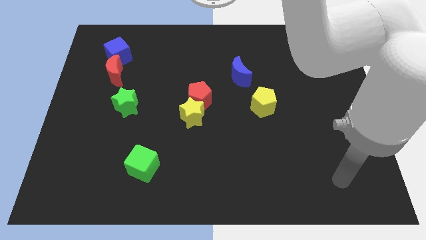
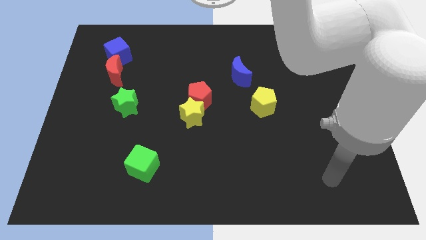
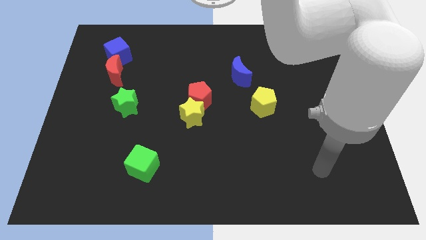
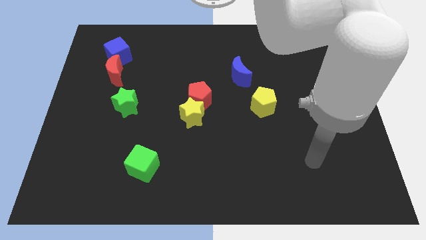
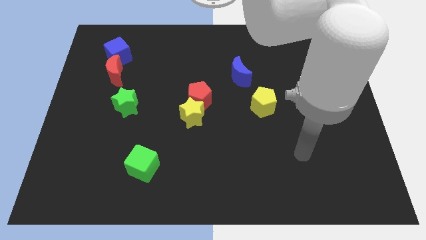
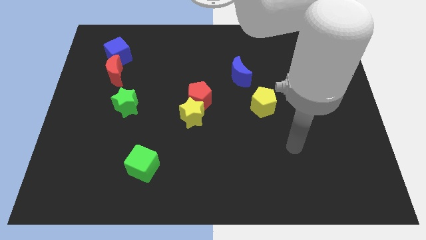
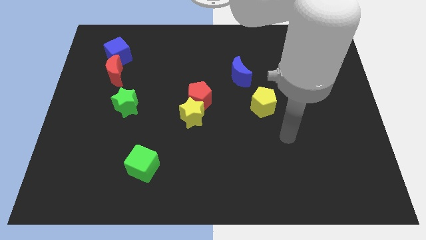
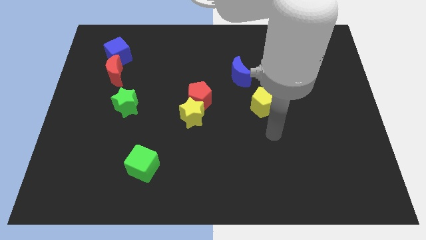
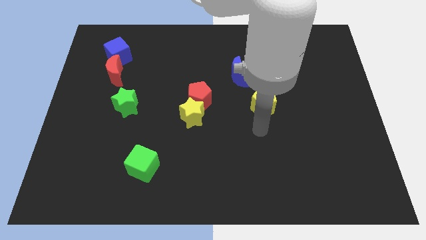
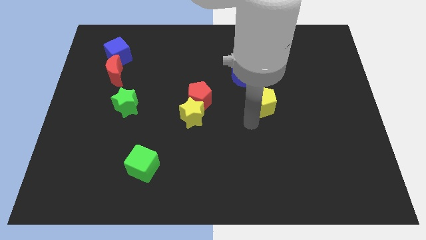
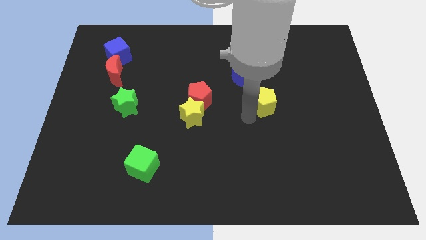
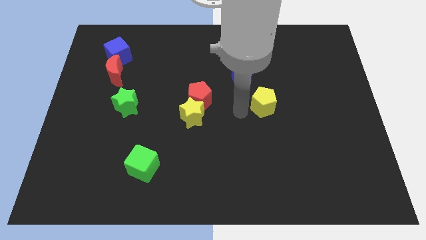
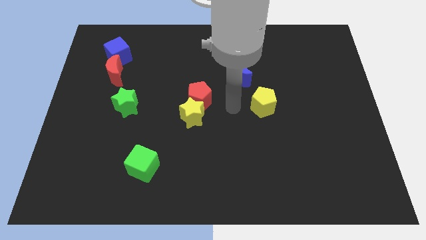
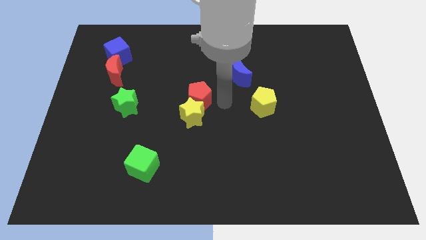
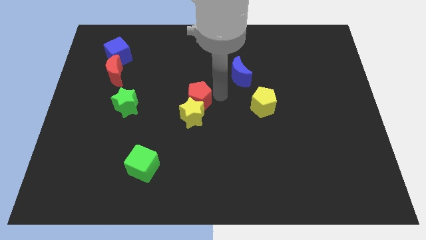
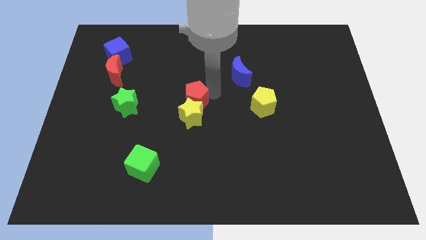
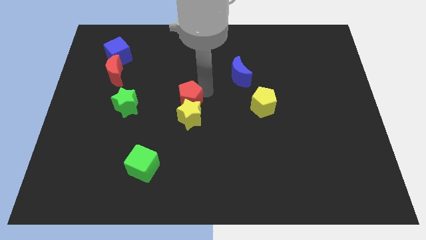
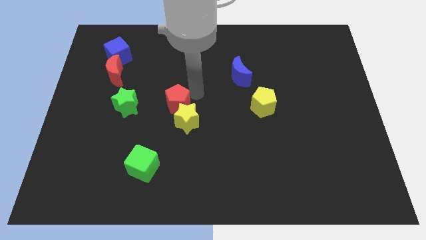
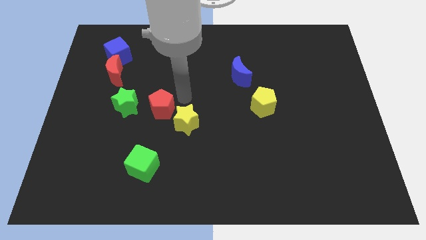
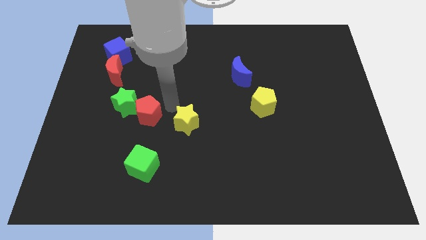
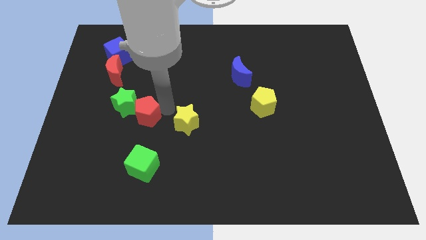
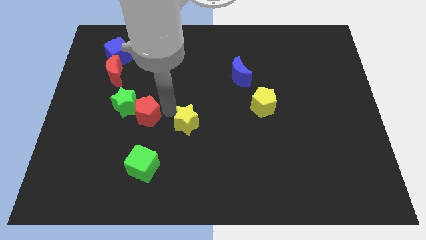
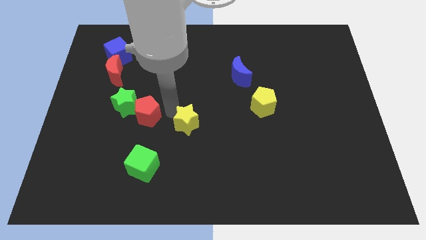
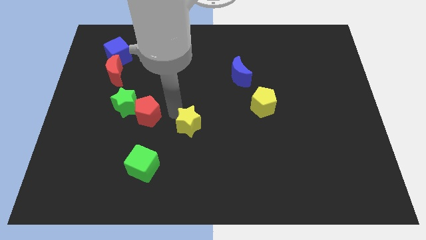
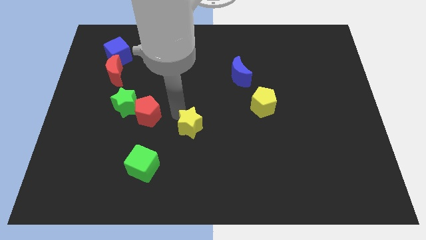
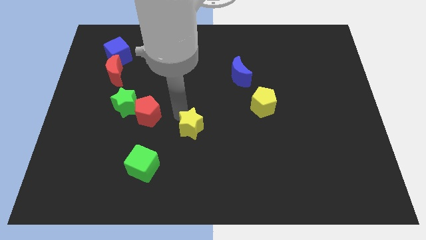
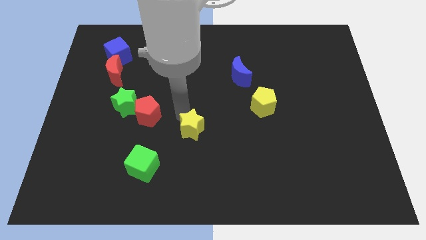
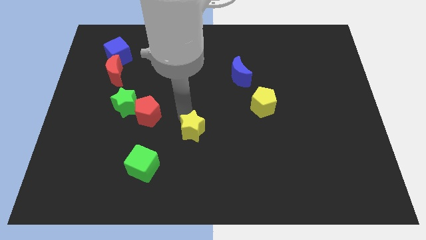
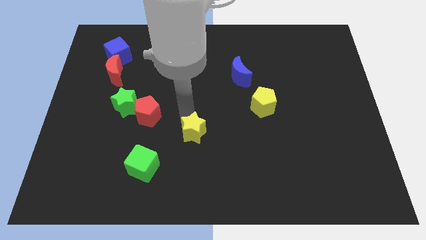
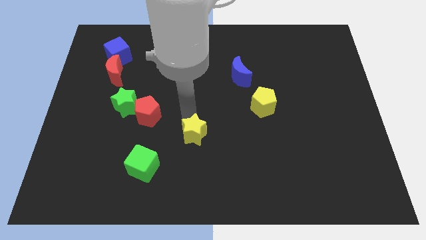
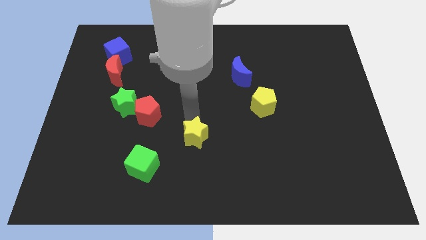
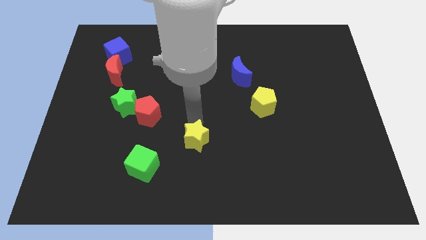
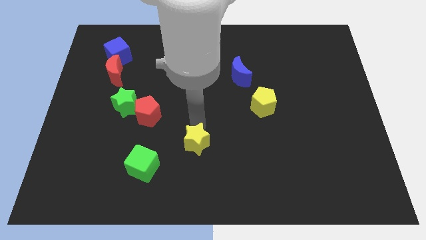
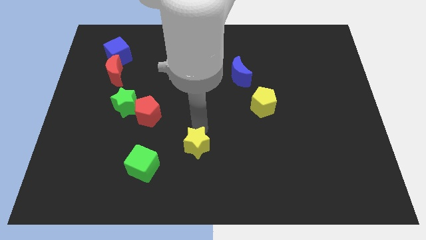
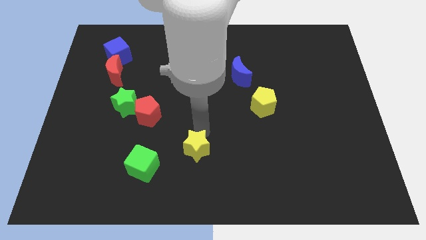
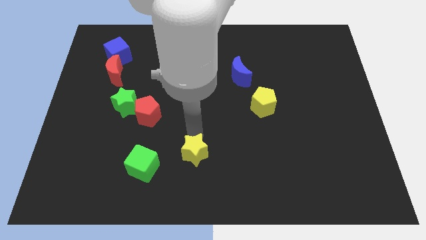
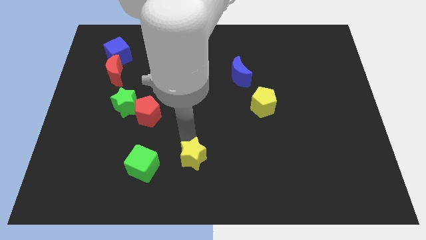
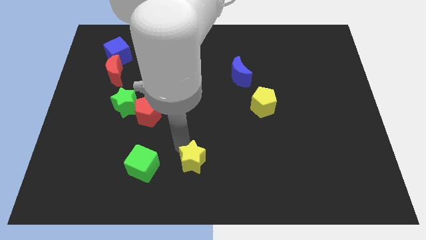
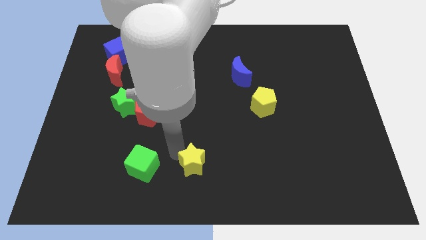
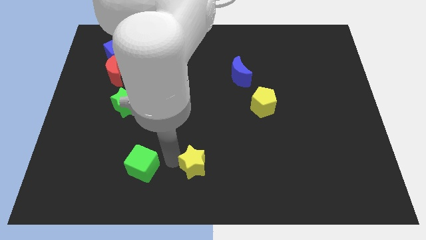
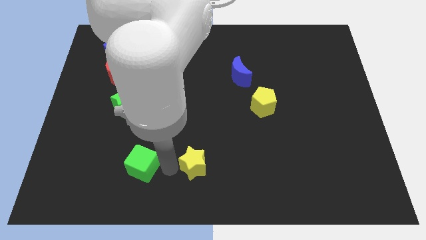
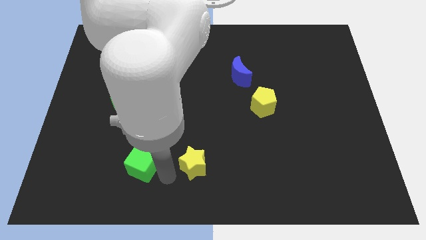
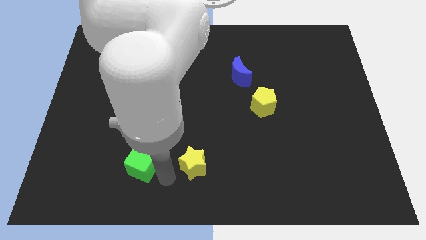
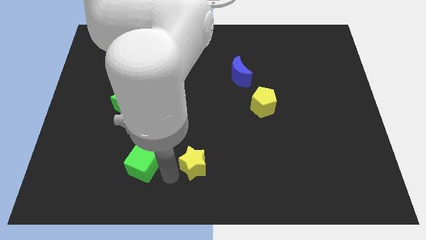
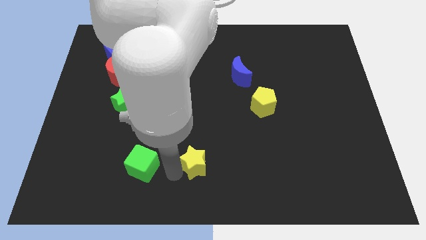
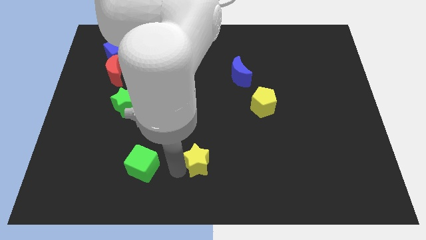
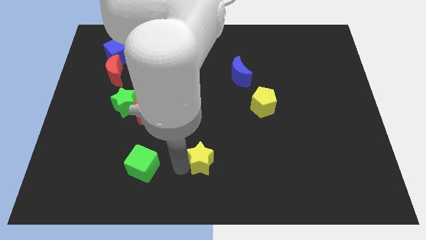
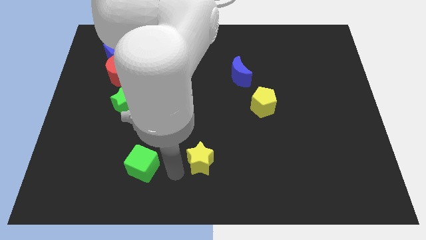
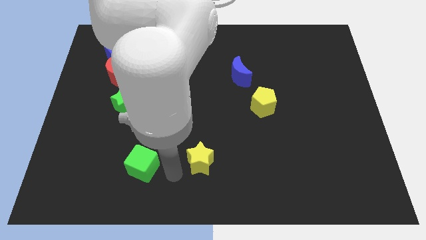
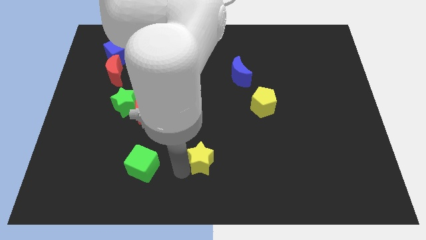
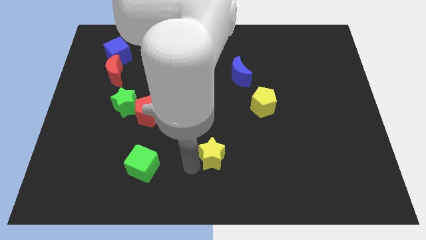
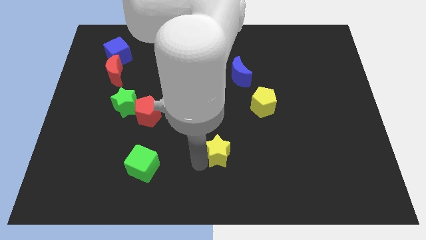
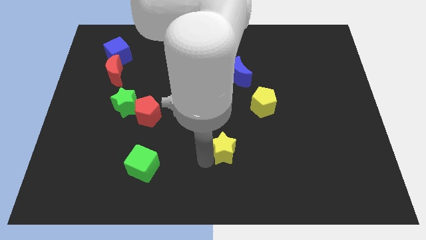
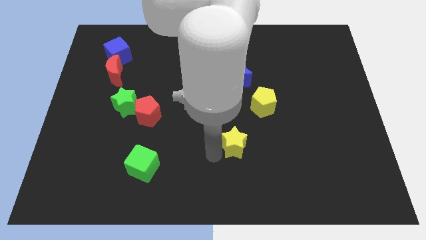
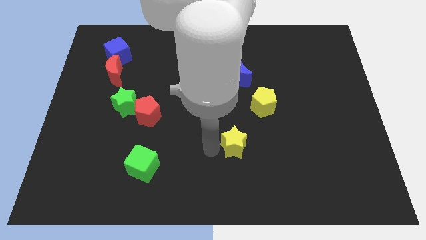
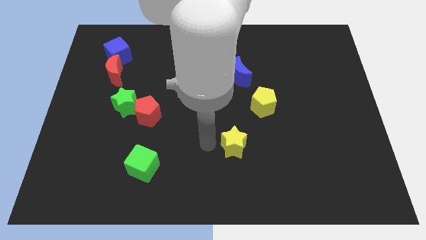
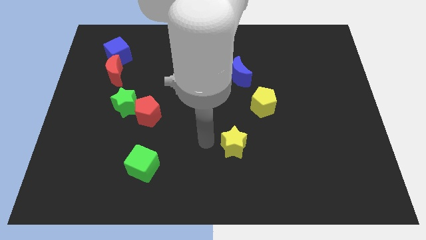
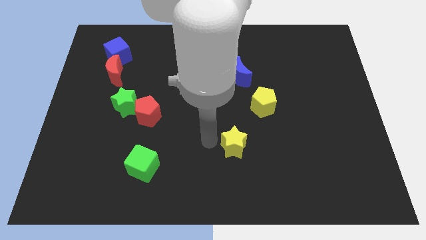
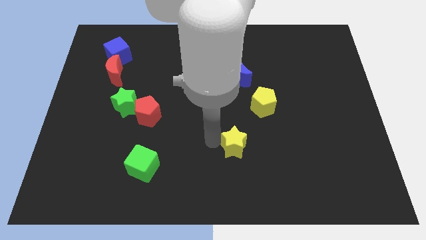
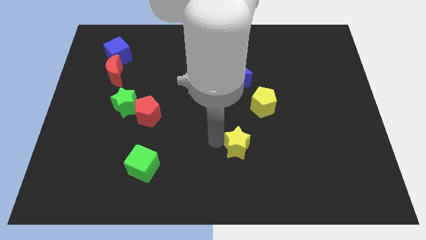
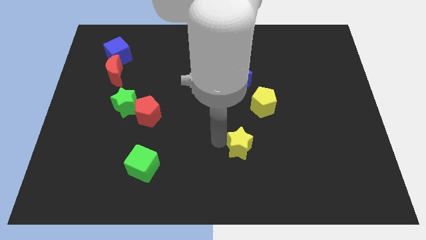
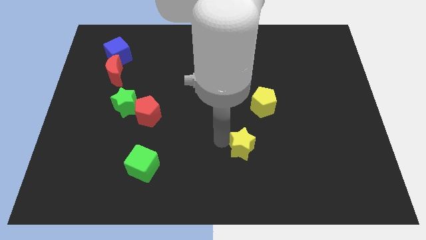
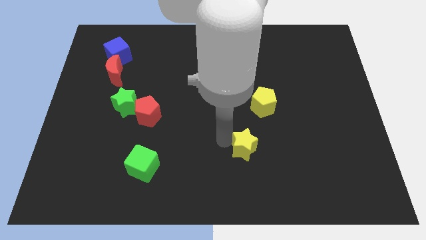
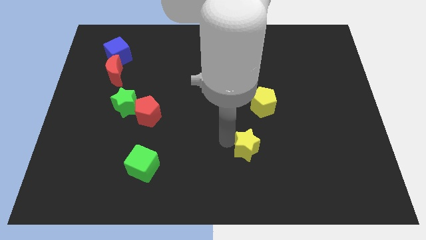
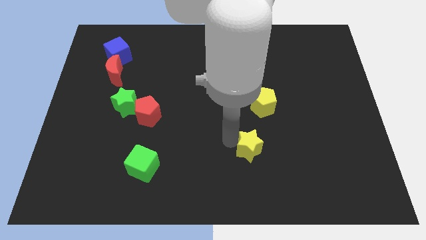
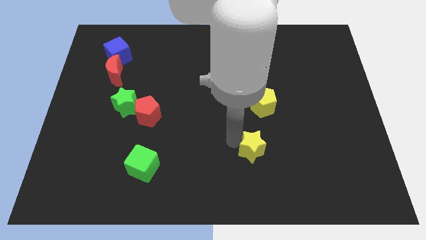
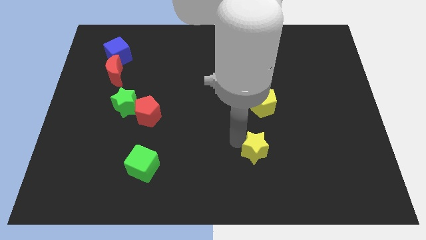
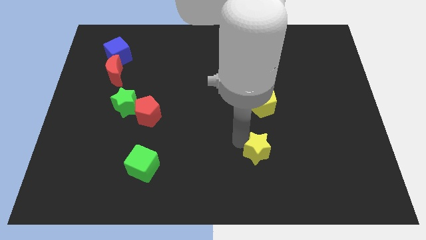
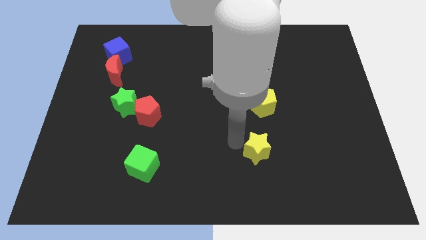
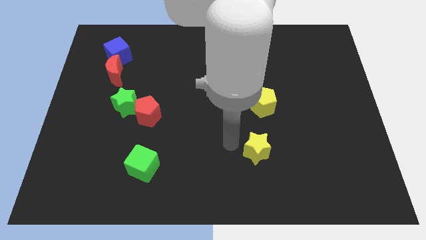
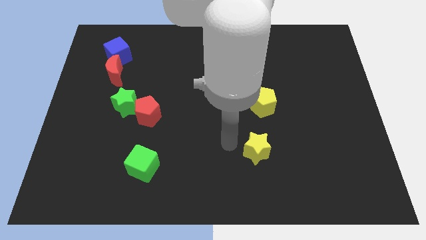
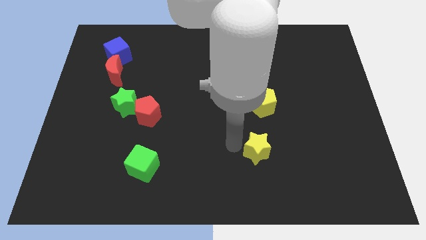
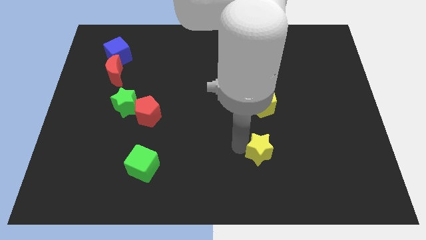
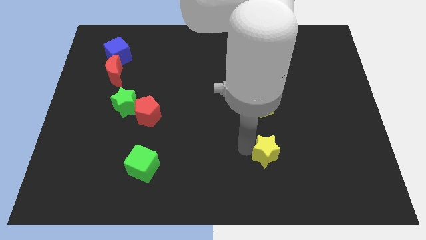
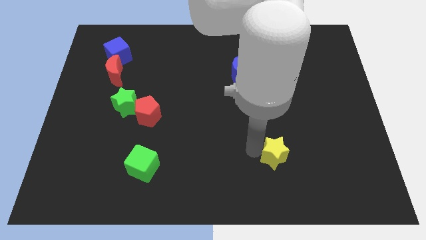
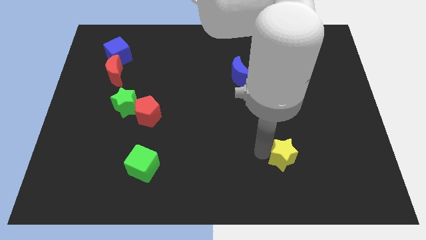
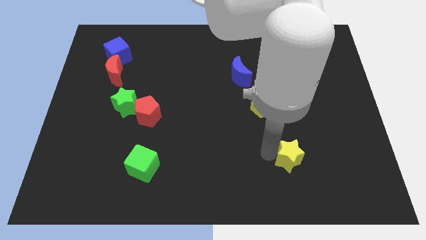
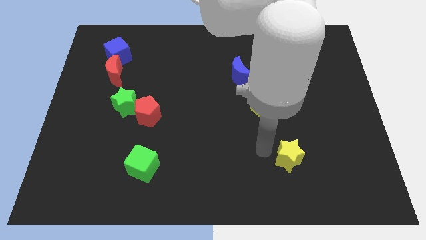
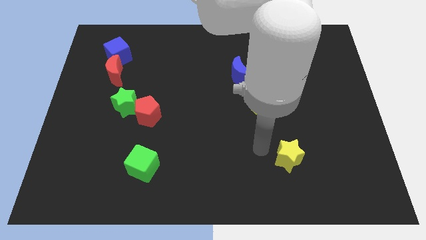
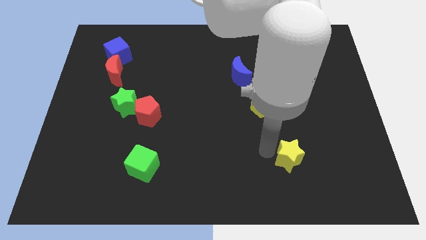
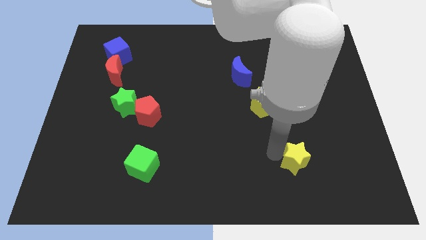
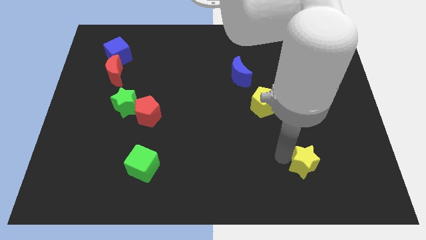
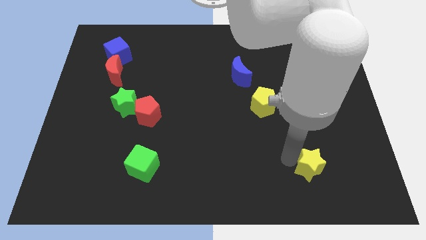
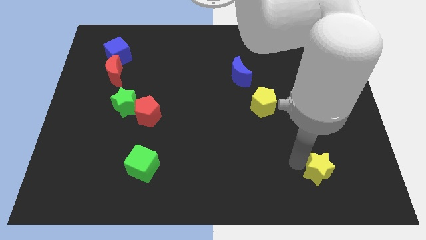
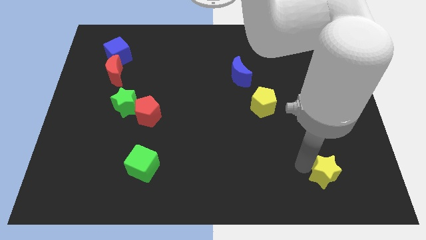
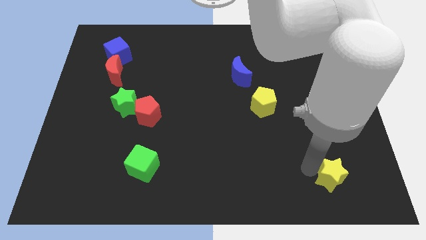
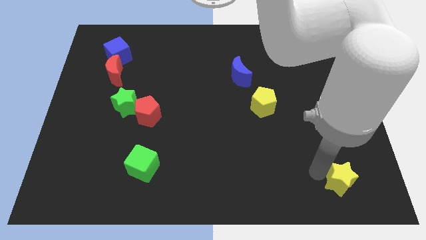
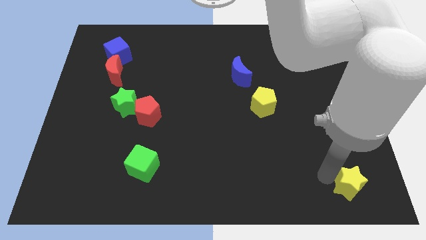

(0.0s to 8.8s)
move the yellow star to the bottom right
